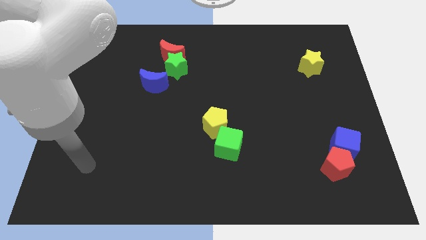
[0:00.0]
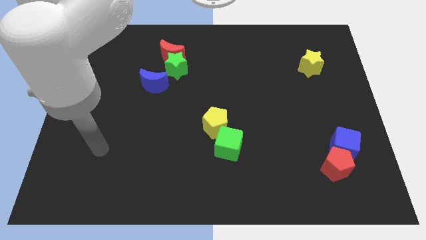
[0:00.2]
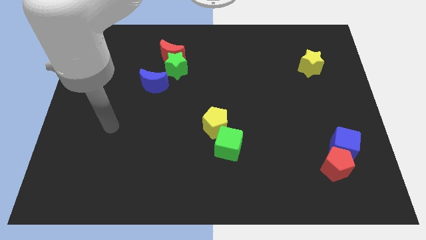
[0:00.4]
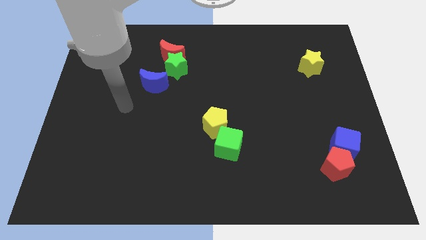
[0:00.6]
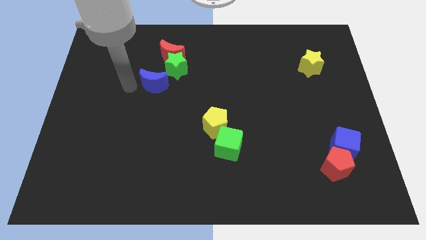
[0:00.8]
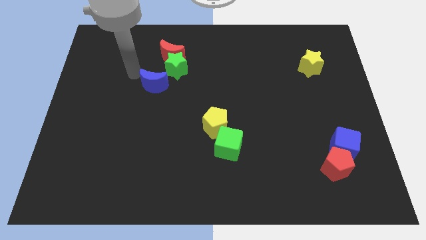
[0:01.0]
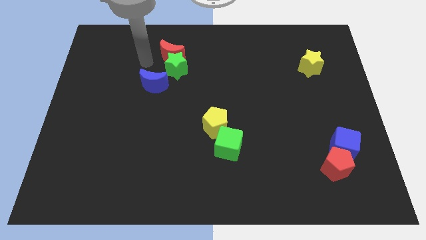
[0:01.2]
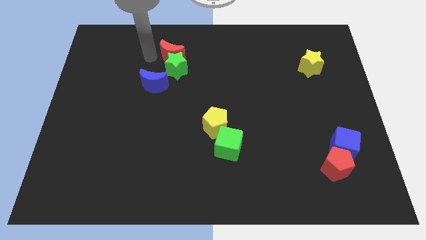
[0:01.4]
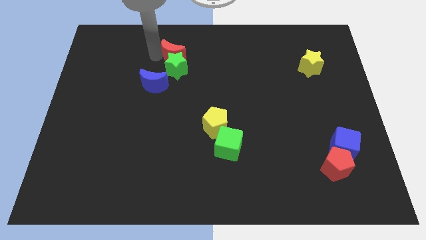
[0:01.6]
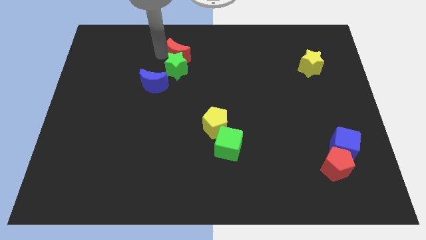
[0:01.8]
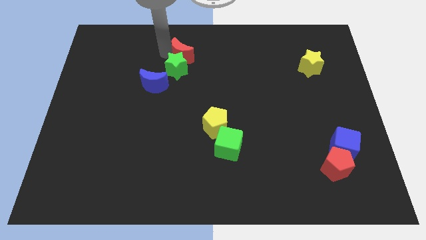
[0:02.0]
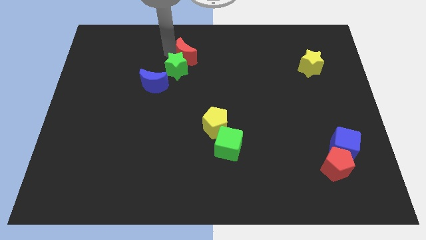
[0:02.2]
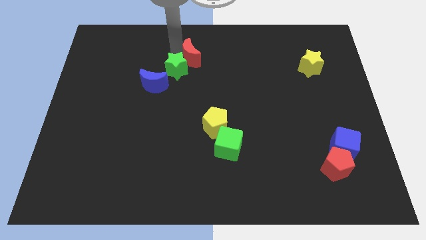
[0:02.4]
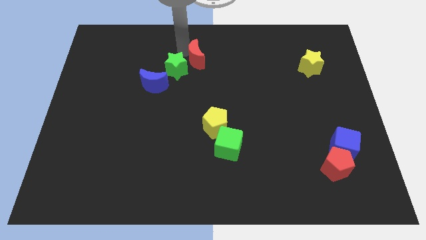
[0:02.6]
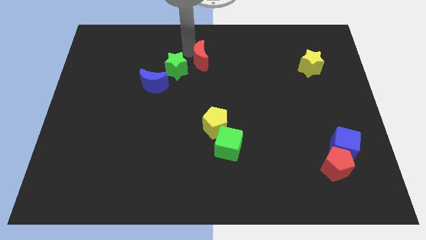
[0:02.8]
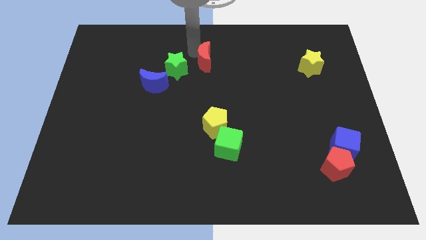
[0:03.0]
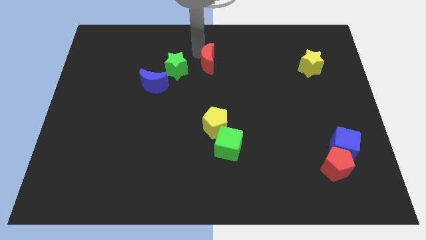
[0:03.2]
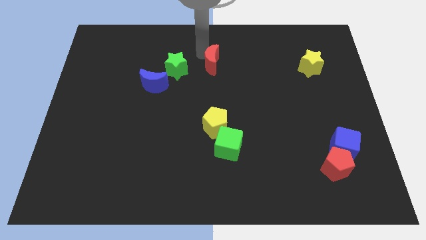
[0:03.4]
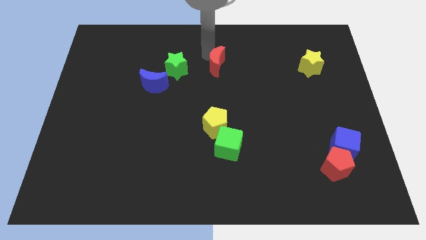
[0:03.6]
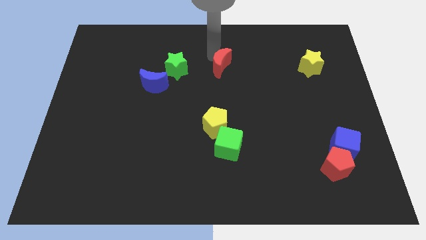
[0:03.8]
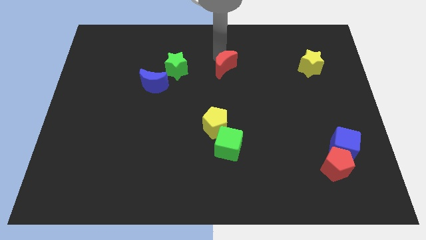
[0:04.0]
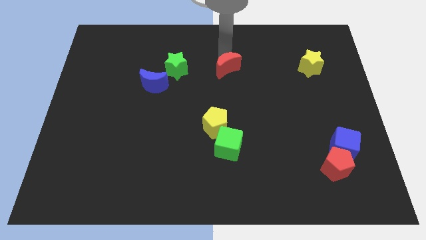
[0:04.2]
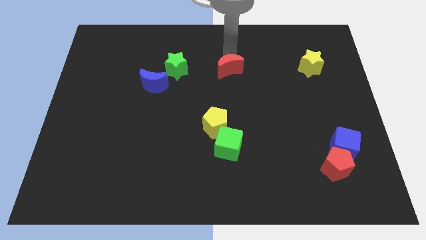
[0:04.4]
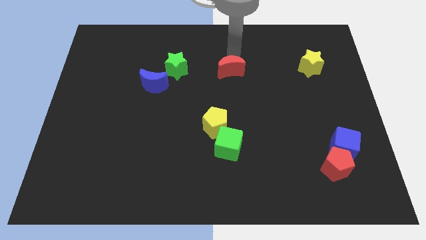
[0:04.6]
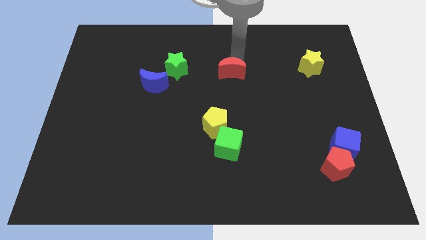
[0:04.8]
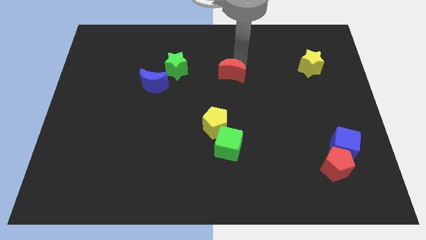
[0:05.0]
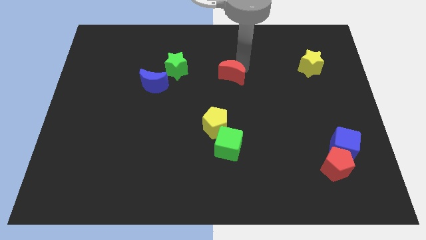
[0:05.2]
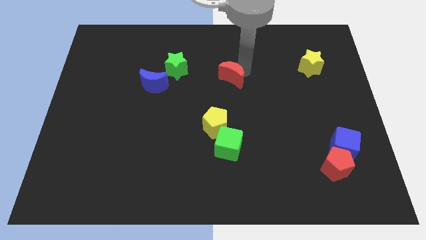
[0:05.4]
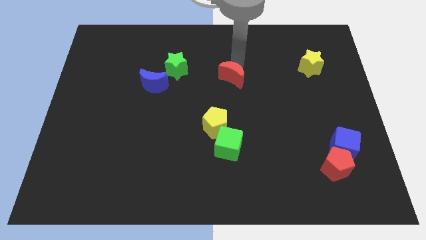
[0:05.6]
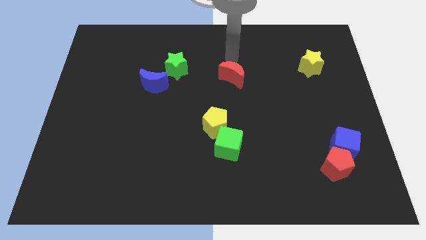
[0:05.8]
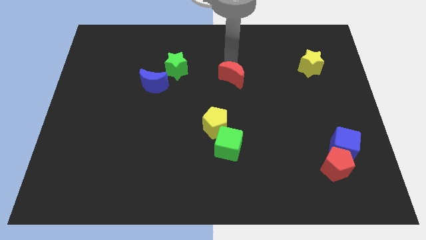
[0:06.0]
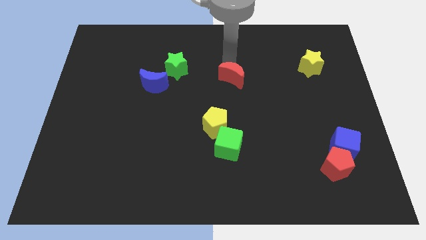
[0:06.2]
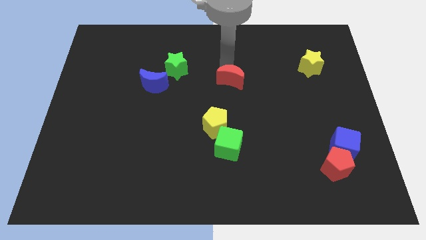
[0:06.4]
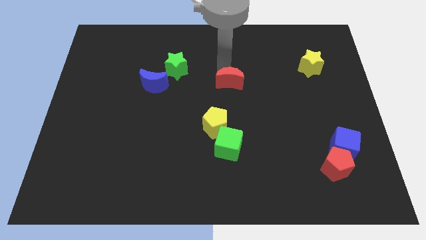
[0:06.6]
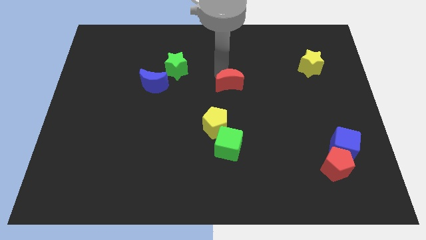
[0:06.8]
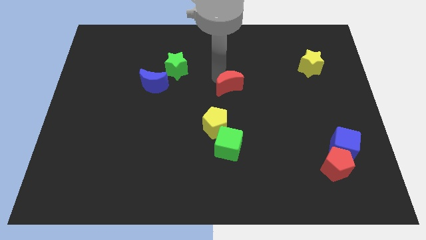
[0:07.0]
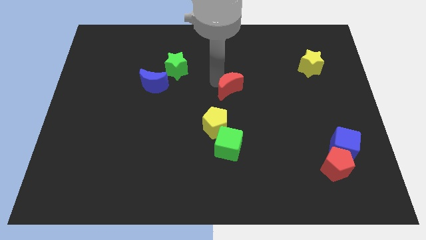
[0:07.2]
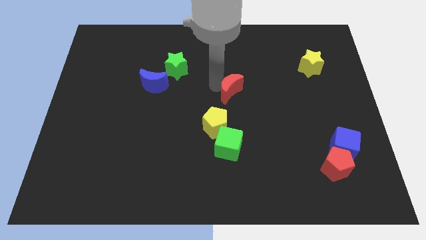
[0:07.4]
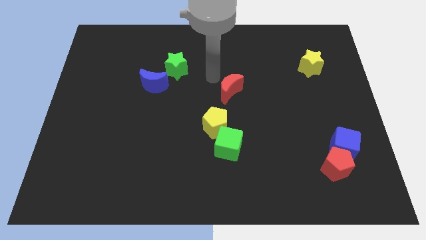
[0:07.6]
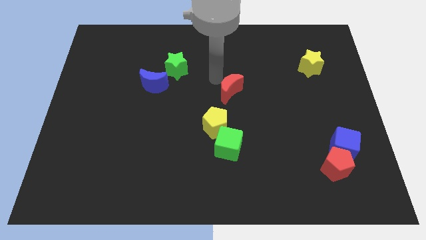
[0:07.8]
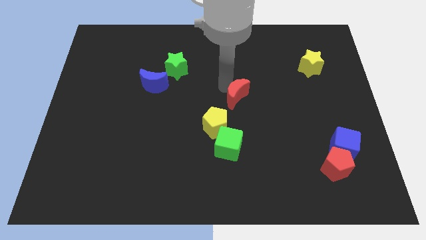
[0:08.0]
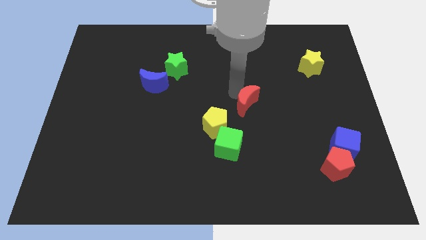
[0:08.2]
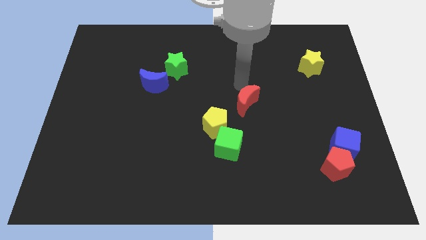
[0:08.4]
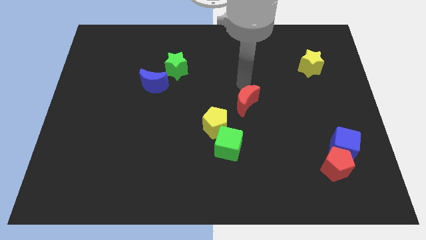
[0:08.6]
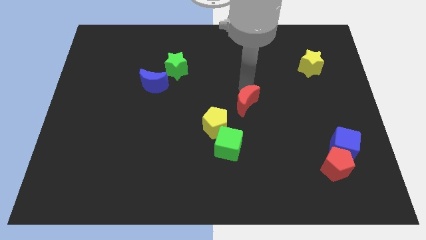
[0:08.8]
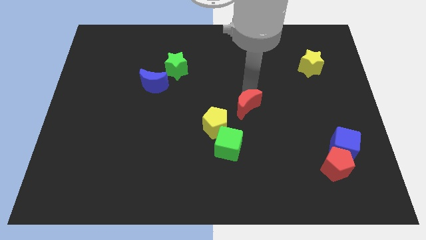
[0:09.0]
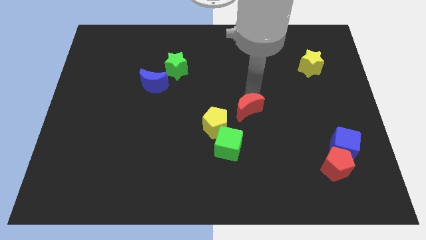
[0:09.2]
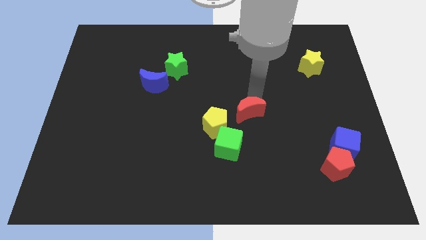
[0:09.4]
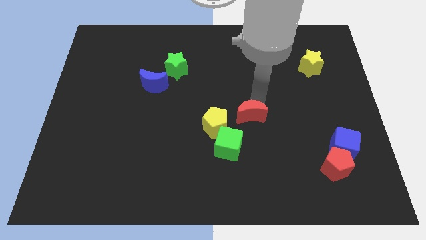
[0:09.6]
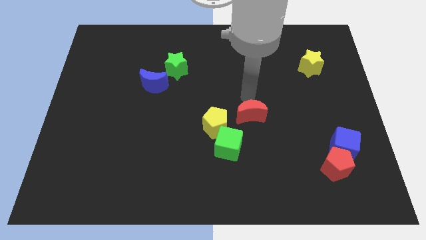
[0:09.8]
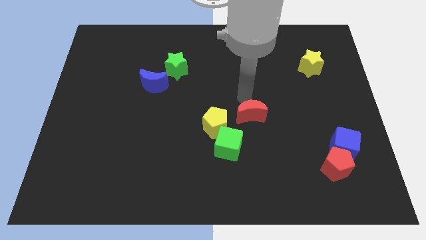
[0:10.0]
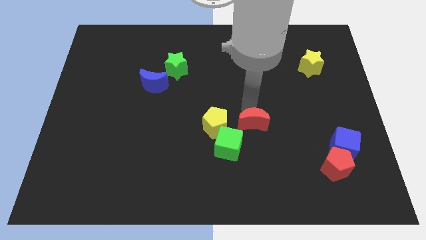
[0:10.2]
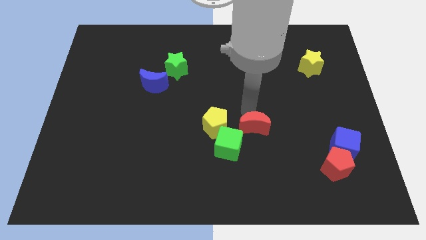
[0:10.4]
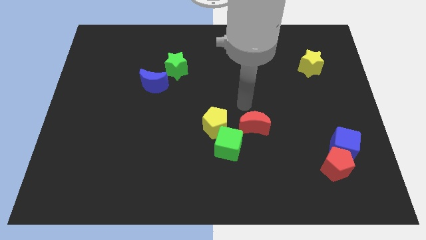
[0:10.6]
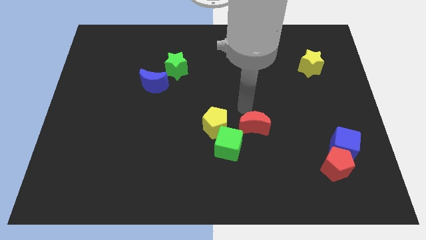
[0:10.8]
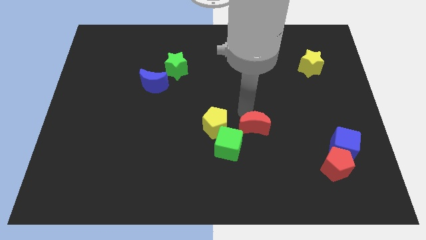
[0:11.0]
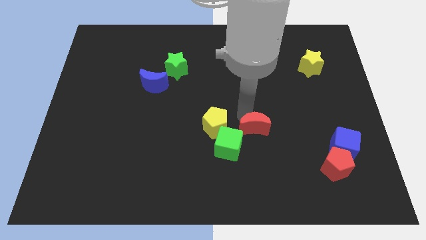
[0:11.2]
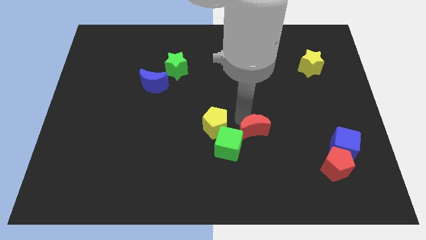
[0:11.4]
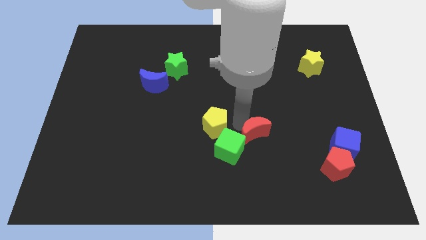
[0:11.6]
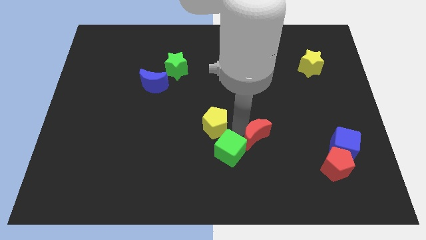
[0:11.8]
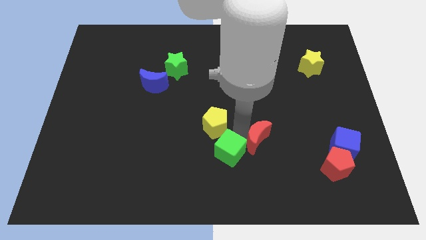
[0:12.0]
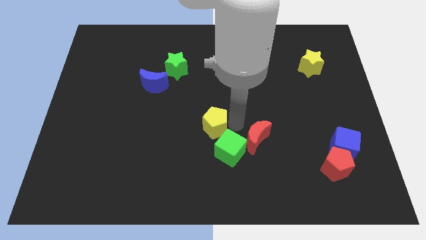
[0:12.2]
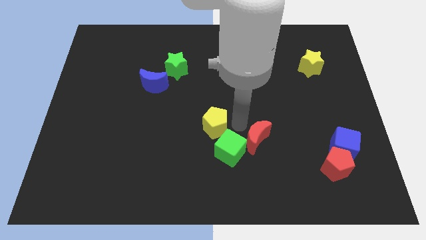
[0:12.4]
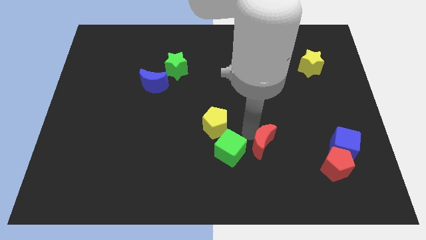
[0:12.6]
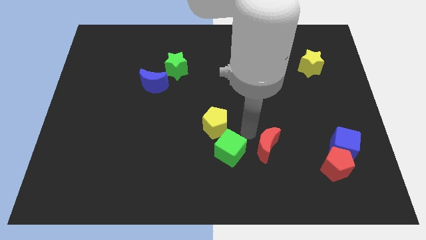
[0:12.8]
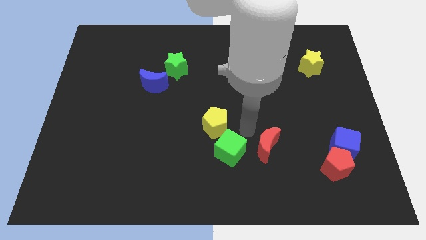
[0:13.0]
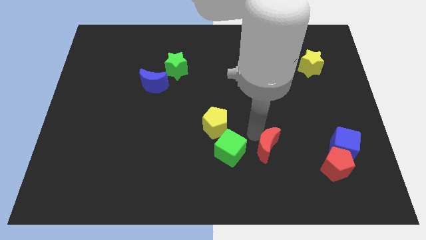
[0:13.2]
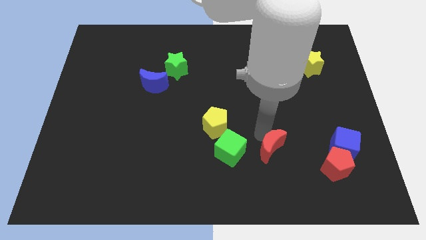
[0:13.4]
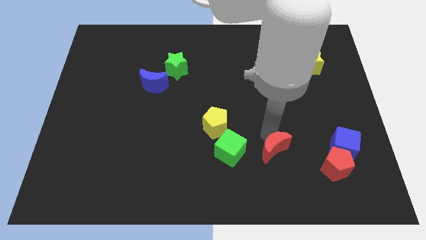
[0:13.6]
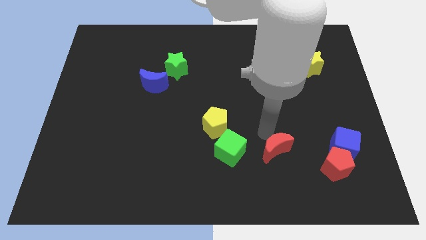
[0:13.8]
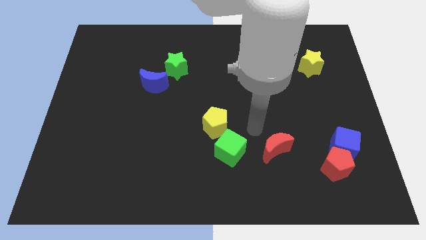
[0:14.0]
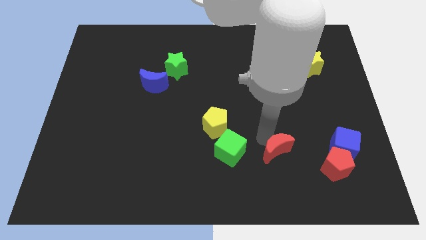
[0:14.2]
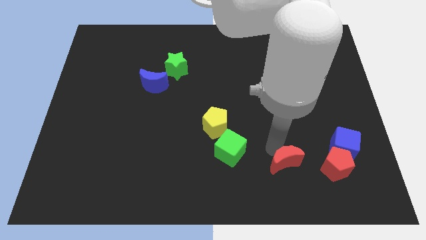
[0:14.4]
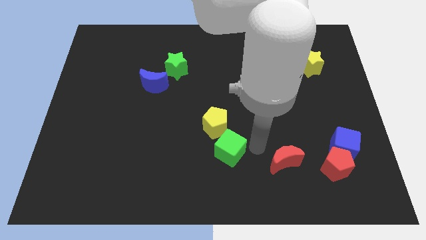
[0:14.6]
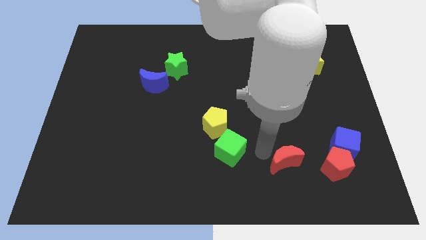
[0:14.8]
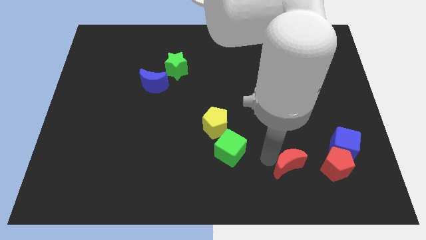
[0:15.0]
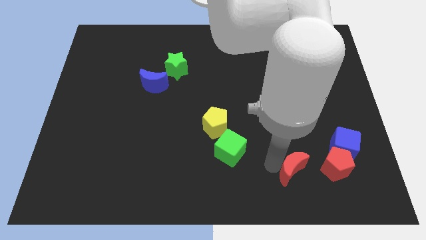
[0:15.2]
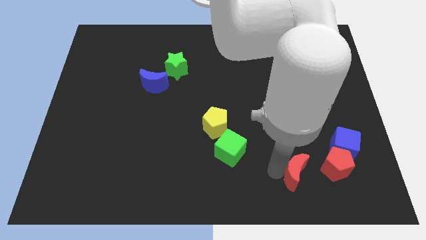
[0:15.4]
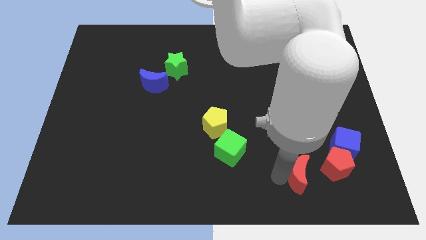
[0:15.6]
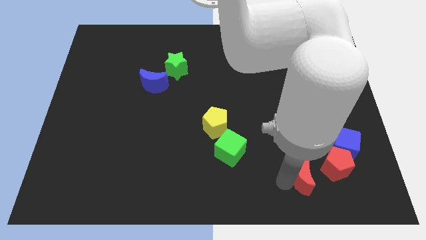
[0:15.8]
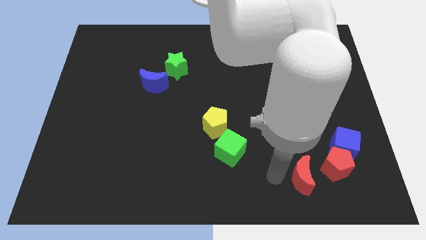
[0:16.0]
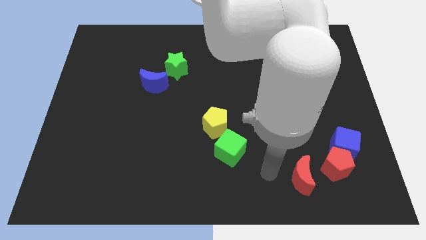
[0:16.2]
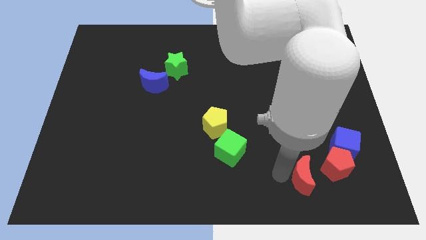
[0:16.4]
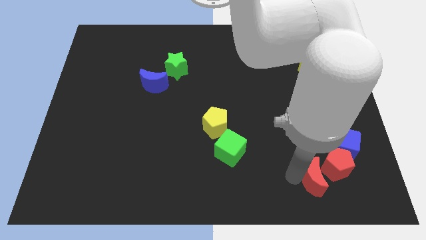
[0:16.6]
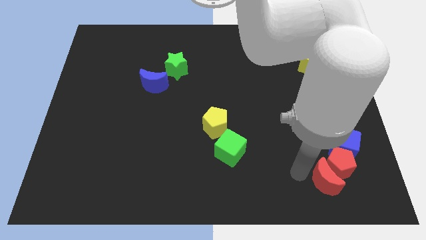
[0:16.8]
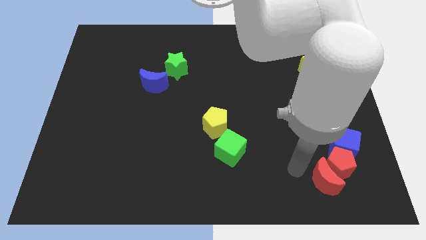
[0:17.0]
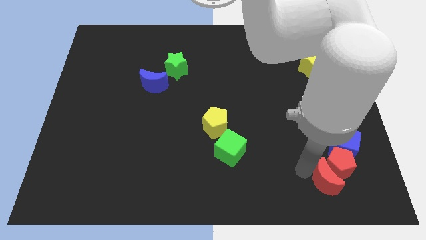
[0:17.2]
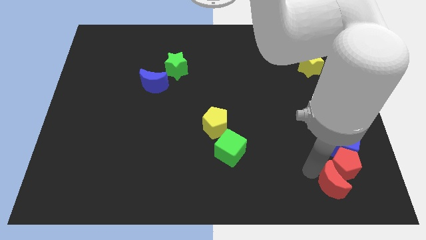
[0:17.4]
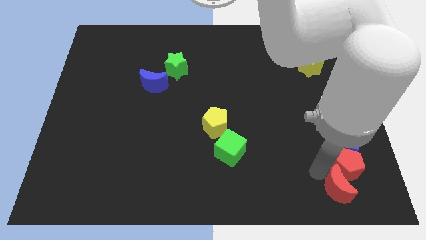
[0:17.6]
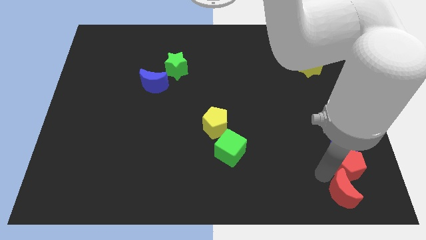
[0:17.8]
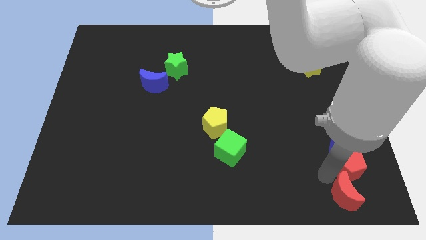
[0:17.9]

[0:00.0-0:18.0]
push the red moon to the lower right corner
